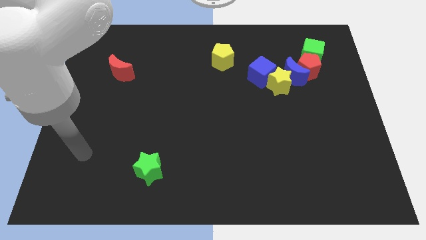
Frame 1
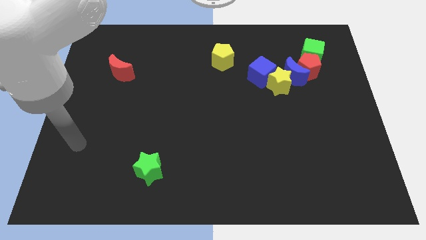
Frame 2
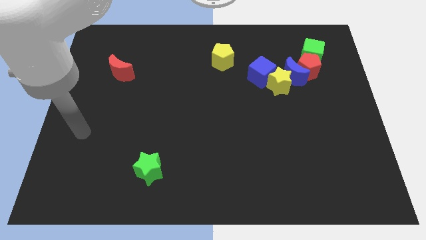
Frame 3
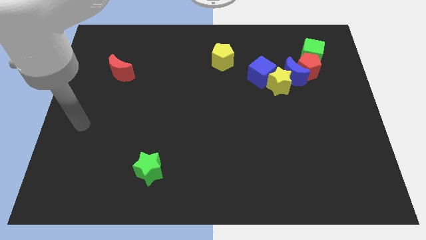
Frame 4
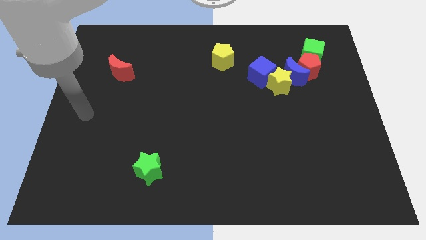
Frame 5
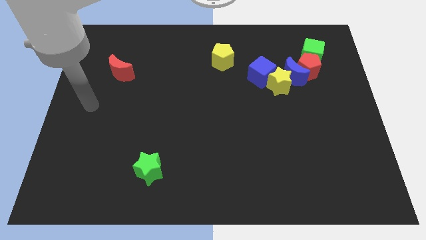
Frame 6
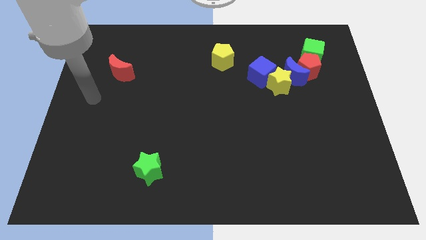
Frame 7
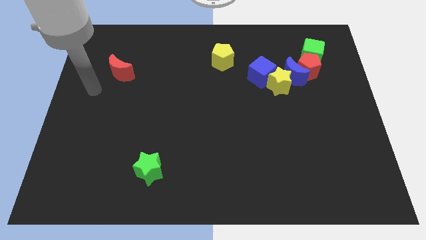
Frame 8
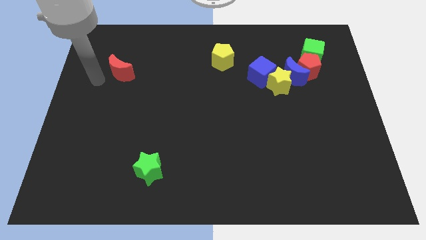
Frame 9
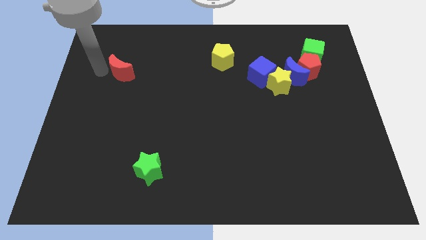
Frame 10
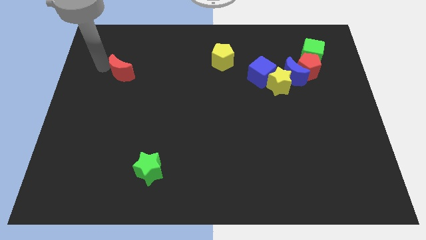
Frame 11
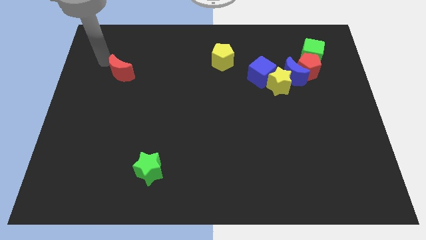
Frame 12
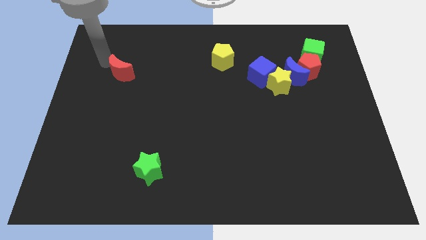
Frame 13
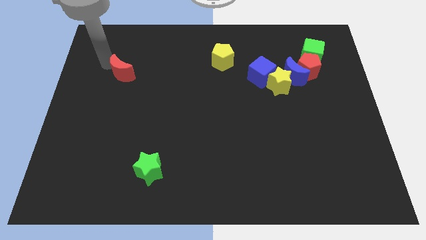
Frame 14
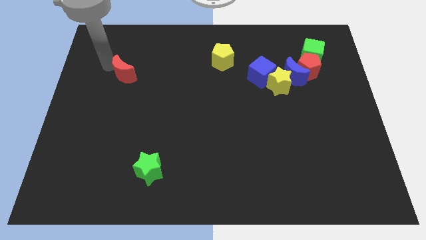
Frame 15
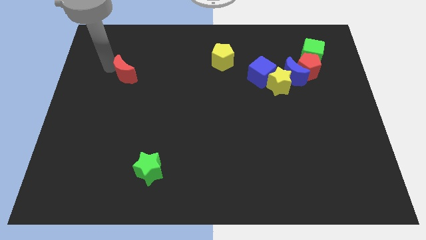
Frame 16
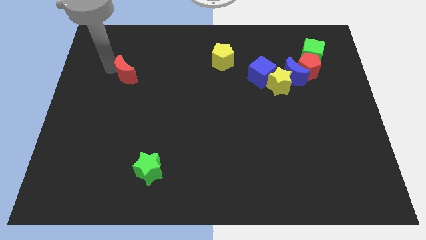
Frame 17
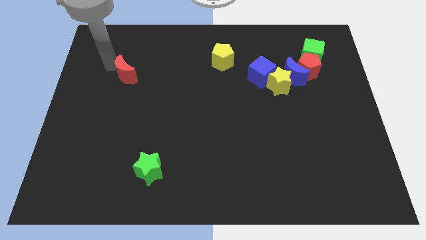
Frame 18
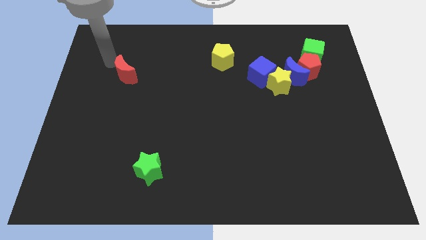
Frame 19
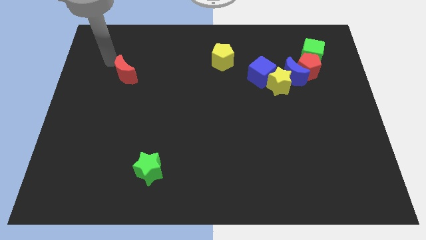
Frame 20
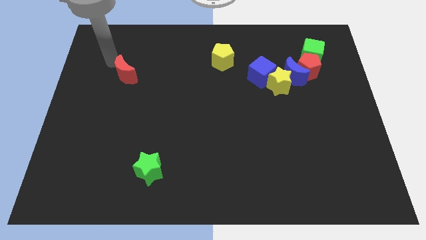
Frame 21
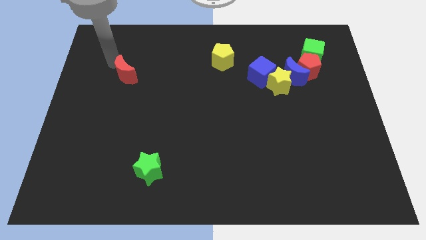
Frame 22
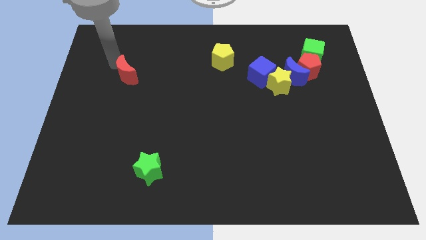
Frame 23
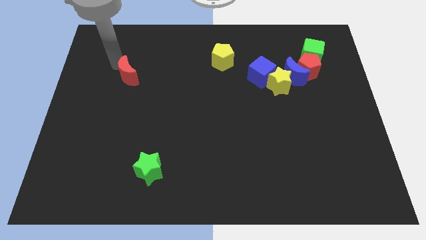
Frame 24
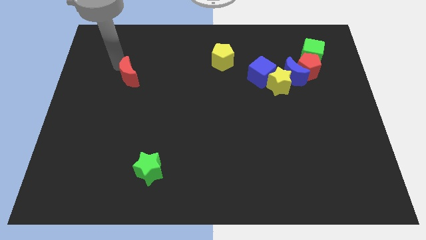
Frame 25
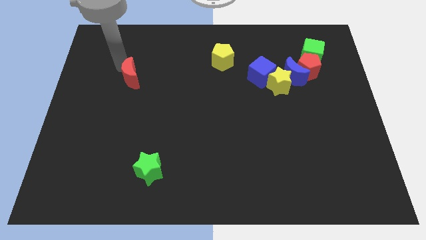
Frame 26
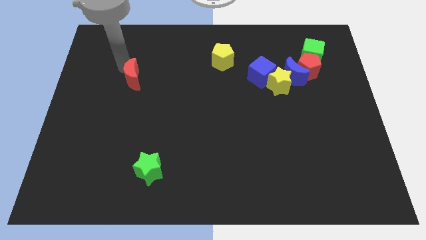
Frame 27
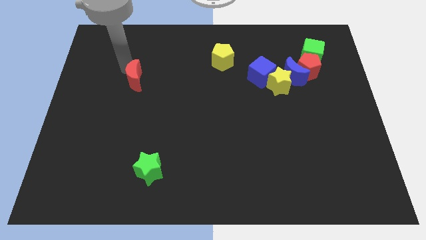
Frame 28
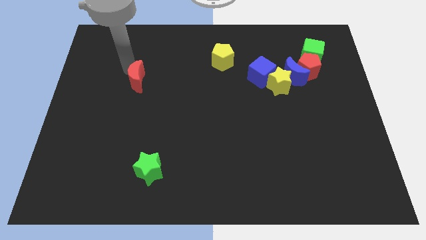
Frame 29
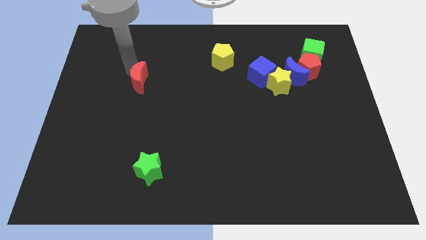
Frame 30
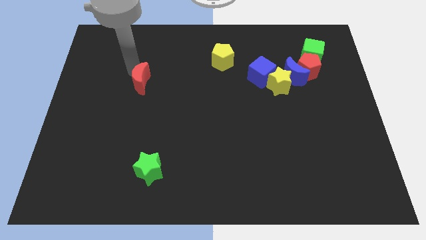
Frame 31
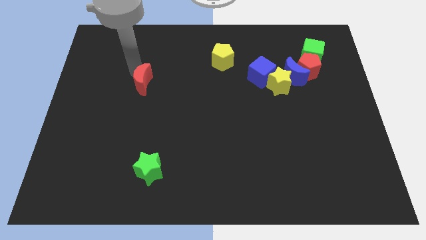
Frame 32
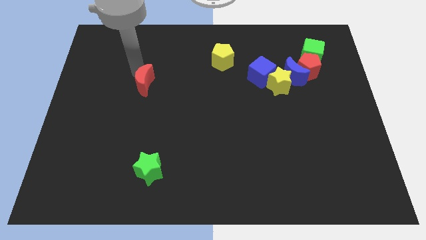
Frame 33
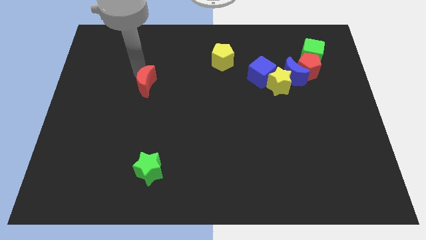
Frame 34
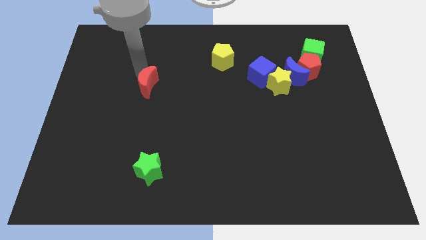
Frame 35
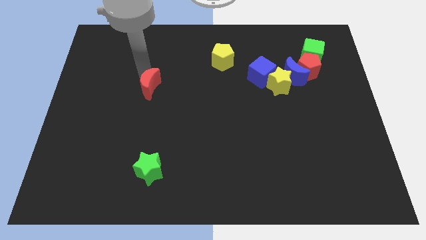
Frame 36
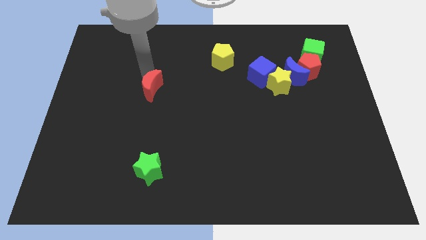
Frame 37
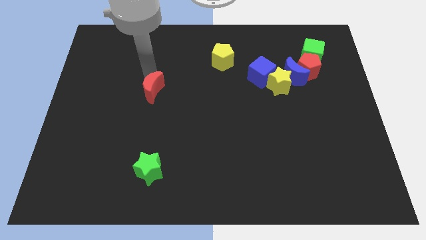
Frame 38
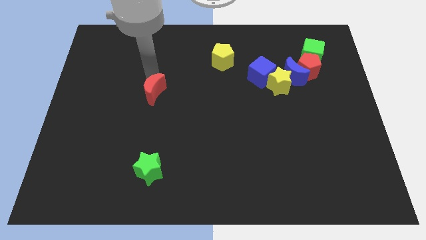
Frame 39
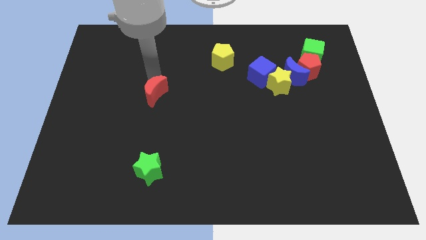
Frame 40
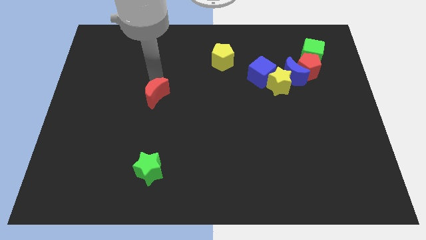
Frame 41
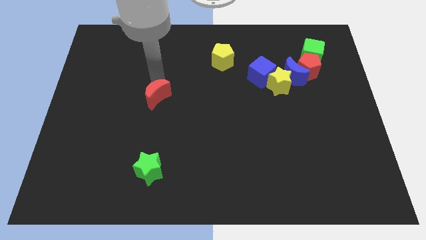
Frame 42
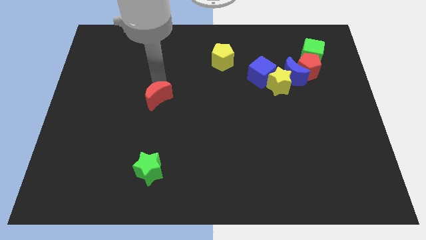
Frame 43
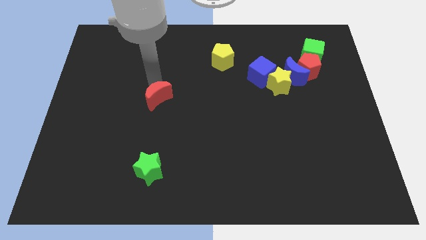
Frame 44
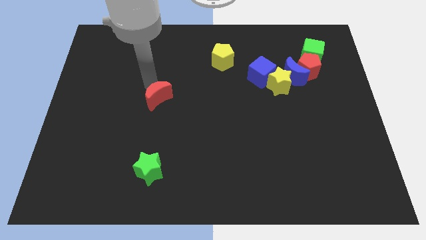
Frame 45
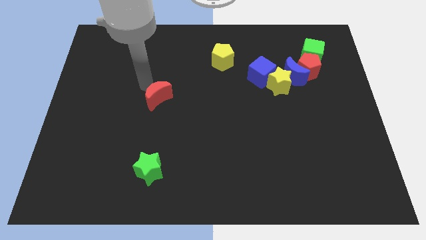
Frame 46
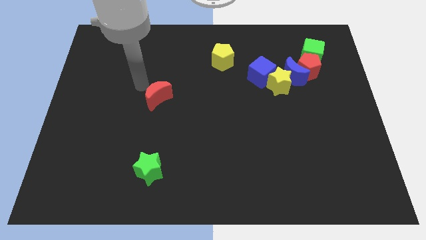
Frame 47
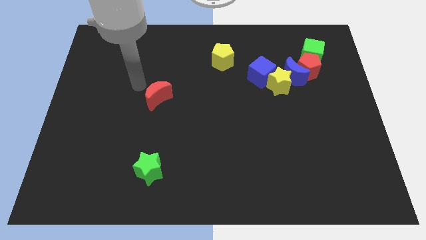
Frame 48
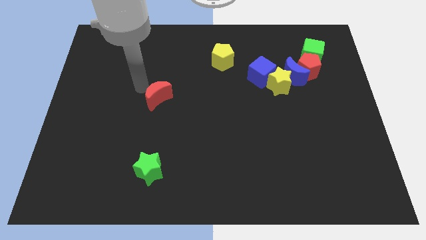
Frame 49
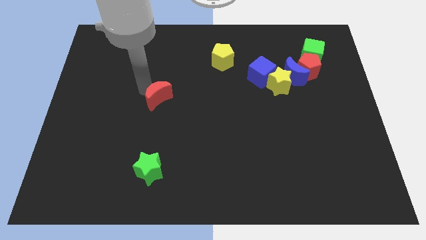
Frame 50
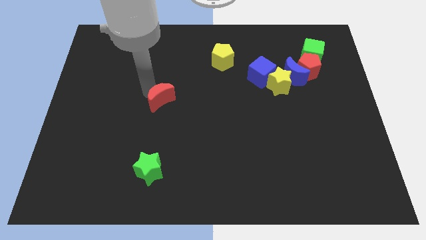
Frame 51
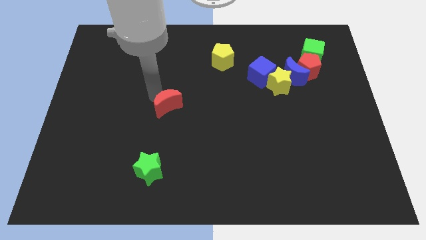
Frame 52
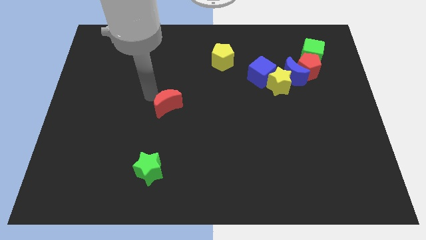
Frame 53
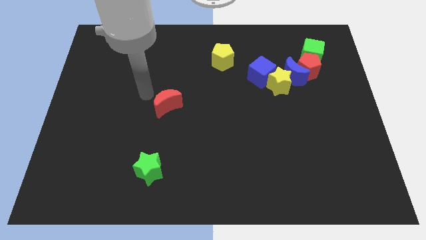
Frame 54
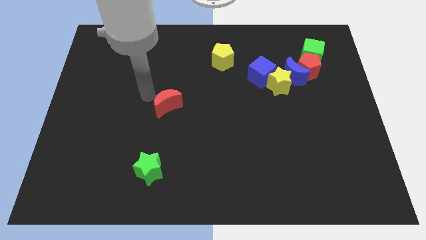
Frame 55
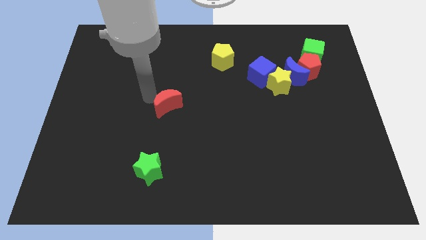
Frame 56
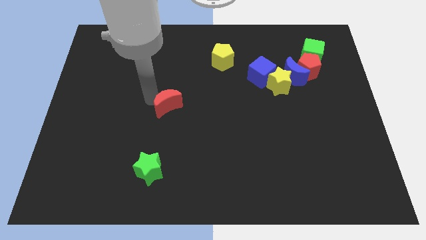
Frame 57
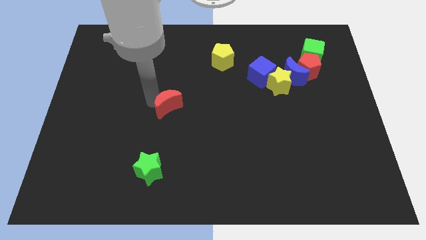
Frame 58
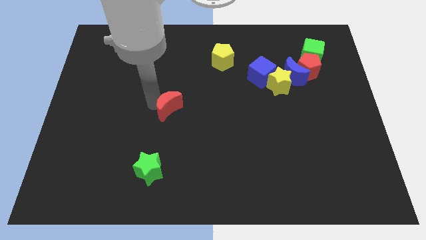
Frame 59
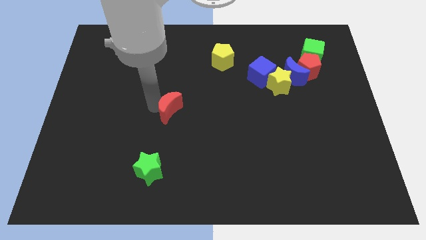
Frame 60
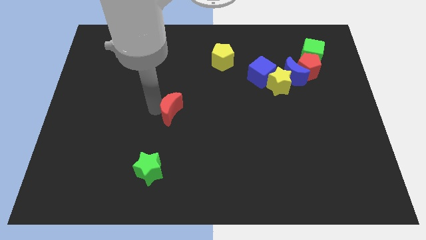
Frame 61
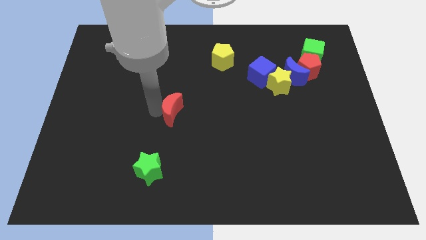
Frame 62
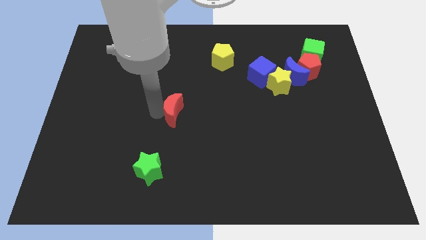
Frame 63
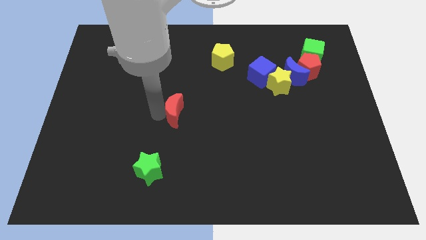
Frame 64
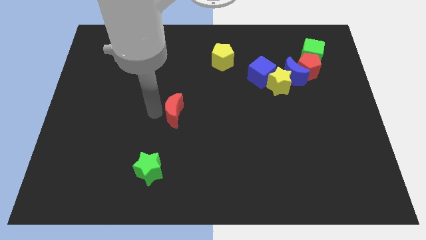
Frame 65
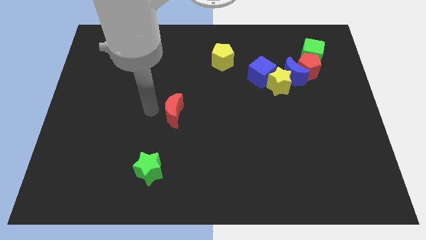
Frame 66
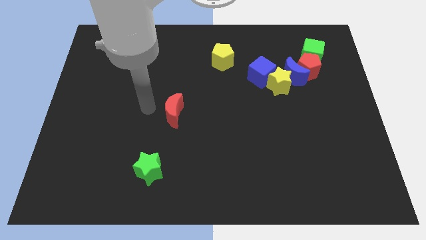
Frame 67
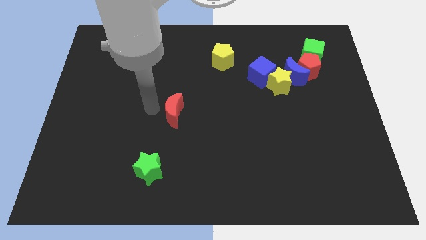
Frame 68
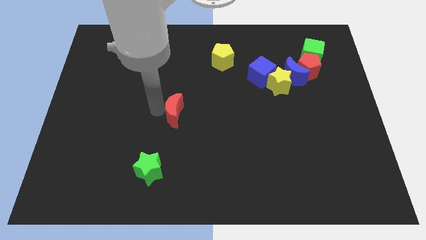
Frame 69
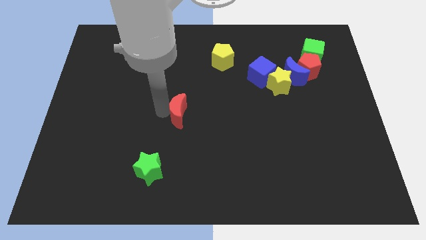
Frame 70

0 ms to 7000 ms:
push the red moon down and right diagonally

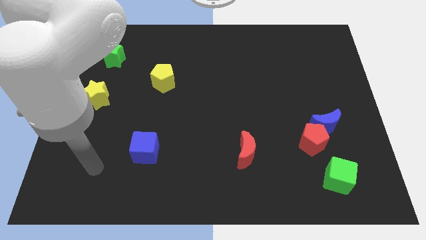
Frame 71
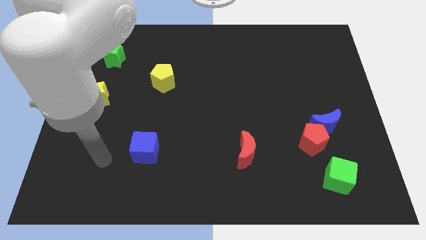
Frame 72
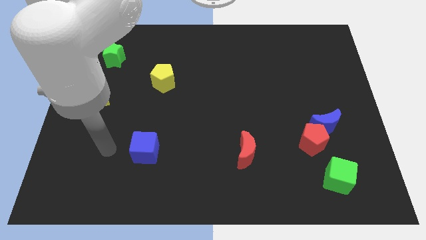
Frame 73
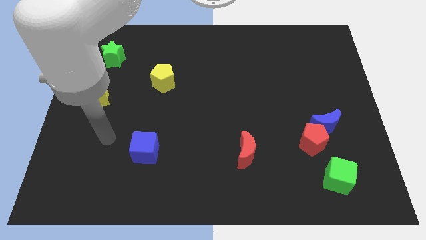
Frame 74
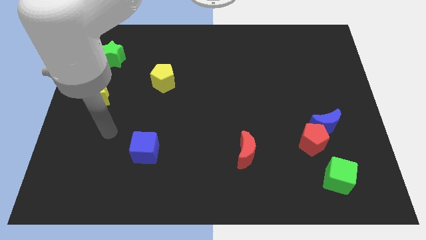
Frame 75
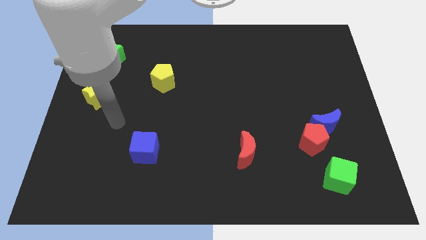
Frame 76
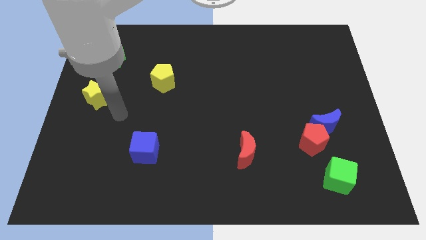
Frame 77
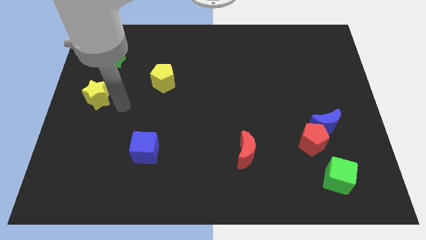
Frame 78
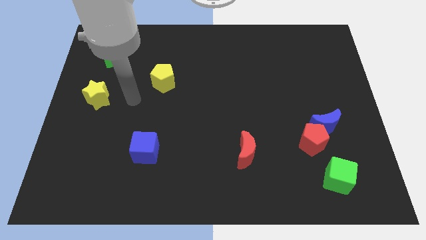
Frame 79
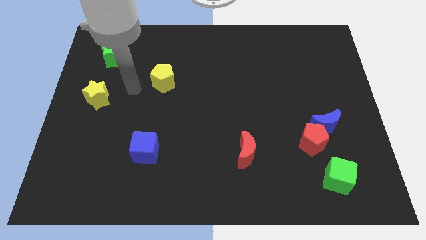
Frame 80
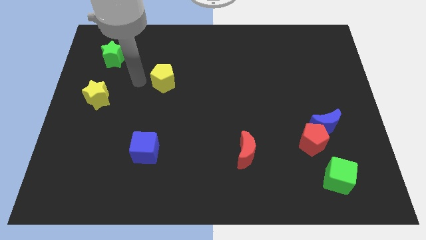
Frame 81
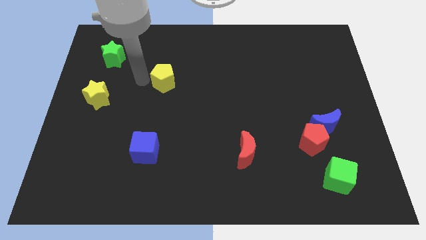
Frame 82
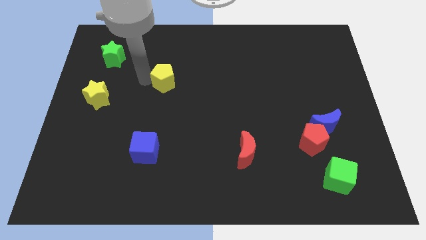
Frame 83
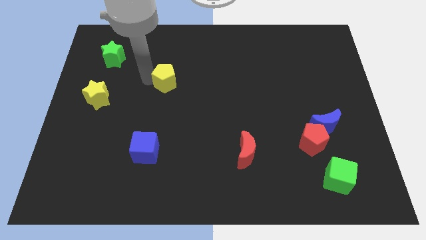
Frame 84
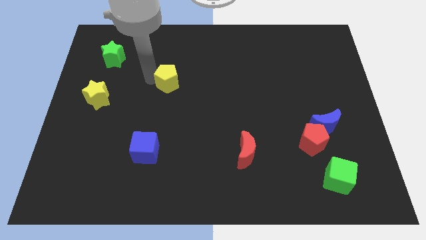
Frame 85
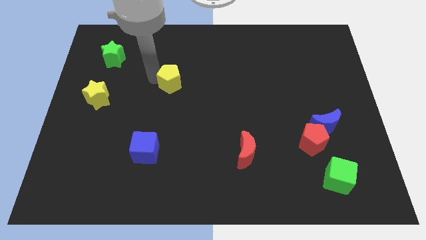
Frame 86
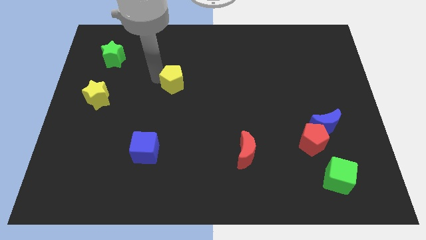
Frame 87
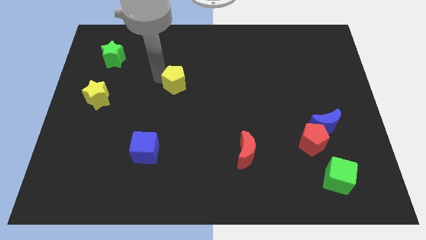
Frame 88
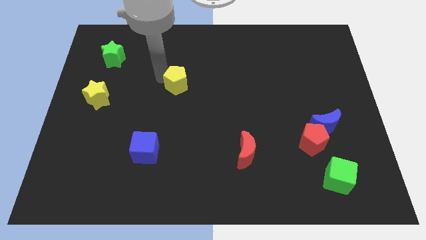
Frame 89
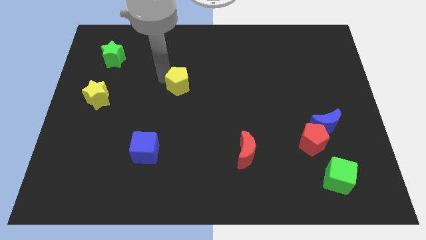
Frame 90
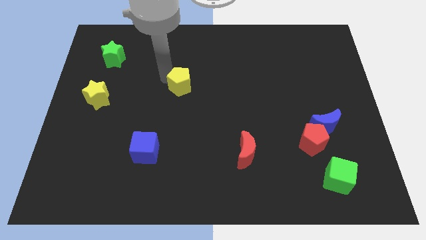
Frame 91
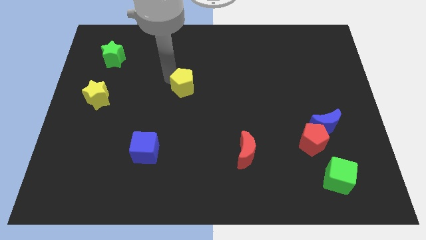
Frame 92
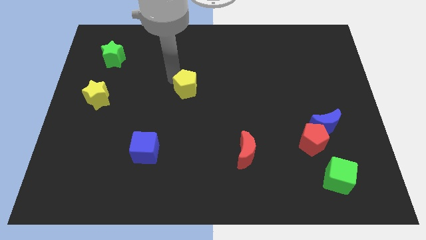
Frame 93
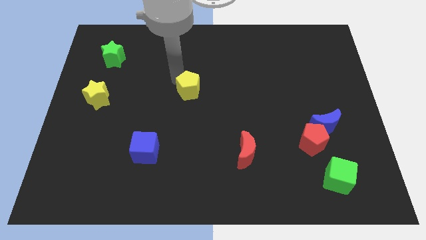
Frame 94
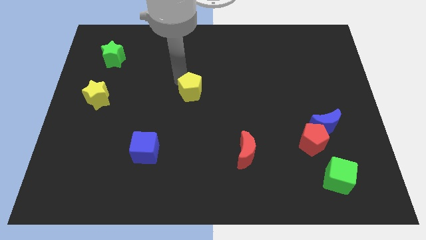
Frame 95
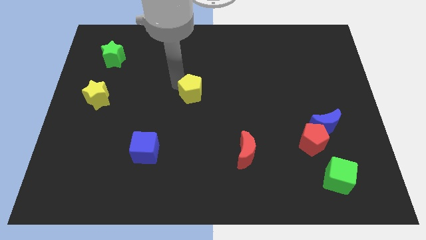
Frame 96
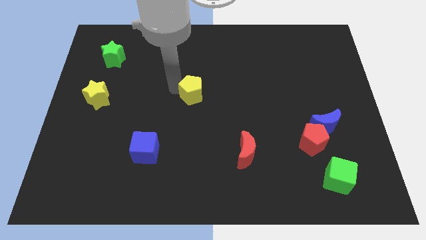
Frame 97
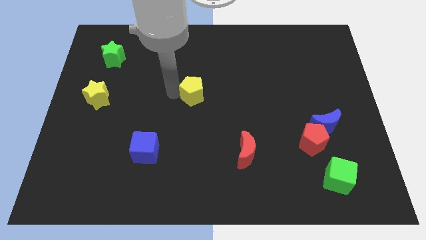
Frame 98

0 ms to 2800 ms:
push the yellow pentagon to the right a little bit
